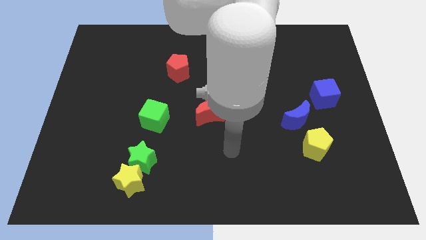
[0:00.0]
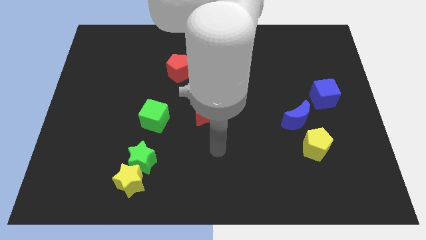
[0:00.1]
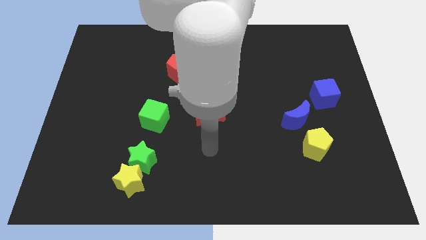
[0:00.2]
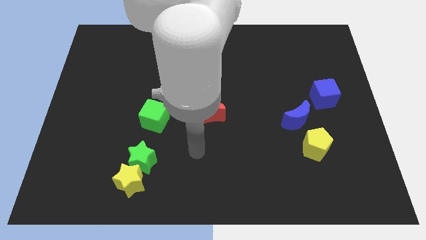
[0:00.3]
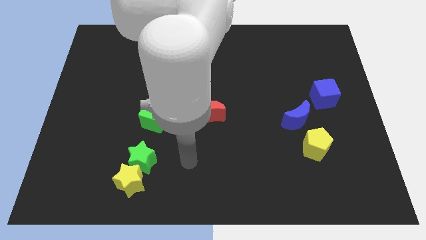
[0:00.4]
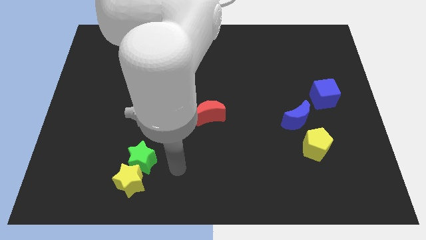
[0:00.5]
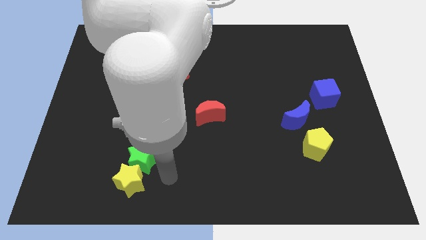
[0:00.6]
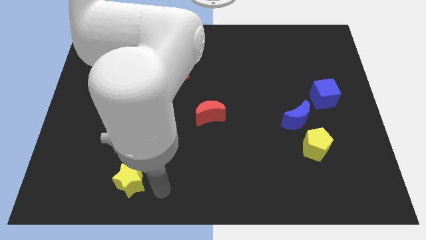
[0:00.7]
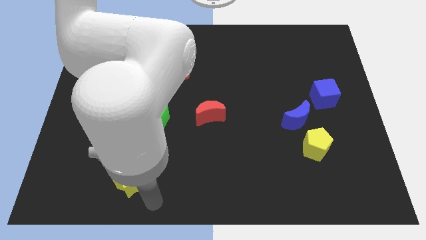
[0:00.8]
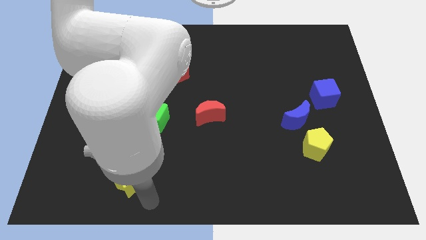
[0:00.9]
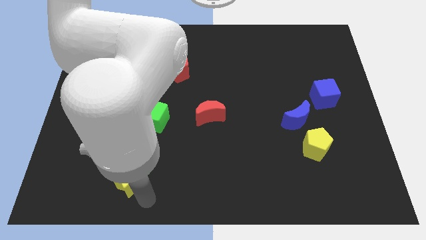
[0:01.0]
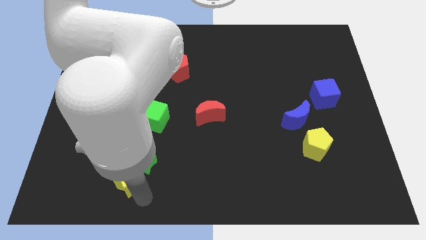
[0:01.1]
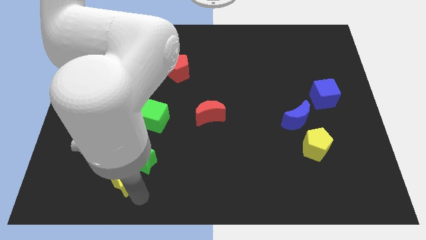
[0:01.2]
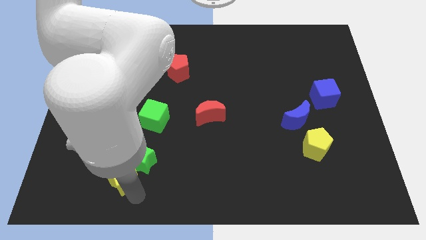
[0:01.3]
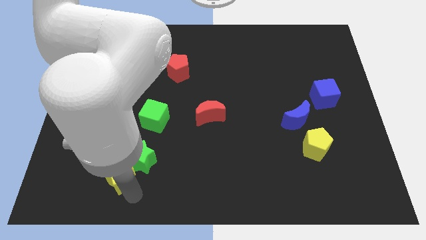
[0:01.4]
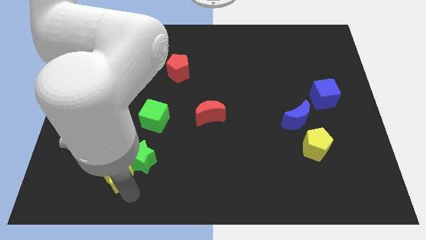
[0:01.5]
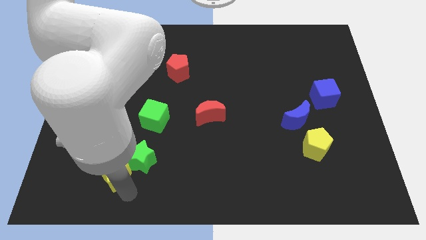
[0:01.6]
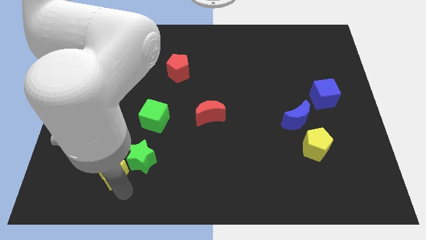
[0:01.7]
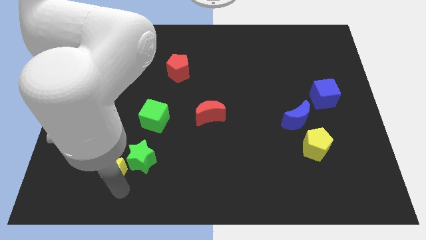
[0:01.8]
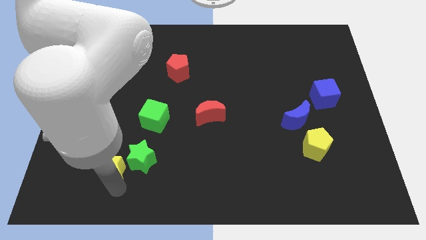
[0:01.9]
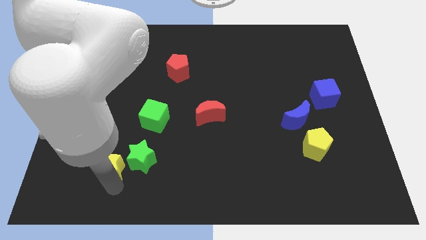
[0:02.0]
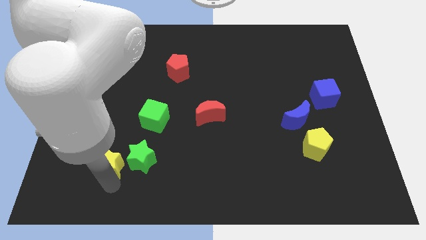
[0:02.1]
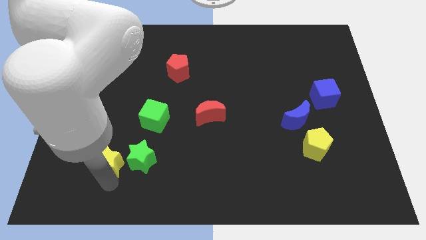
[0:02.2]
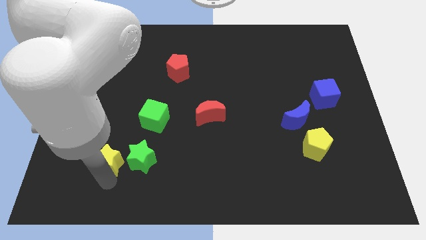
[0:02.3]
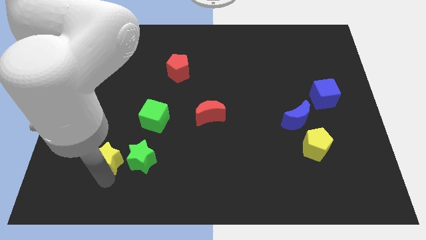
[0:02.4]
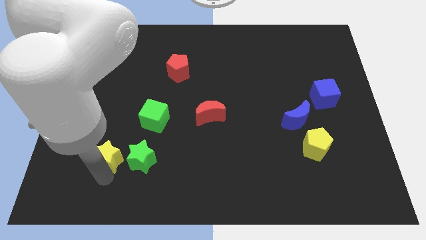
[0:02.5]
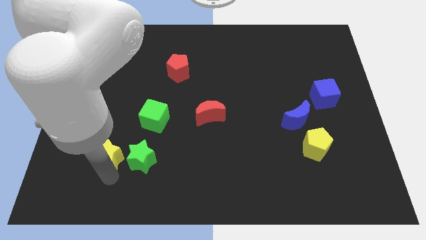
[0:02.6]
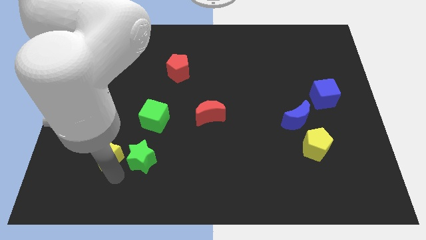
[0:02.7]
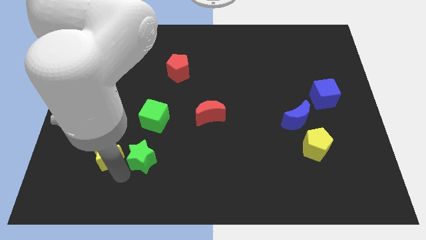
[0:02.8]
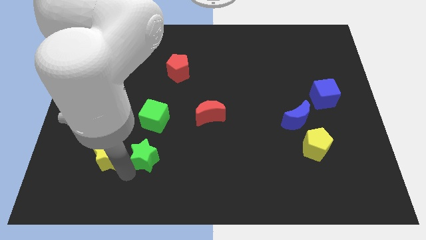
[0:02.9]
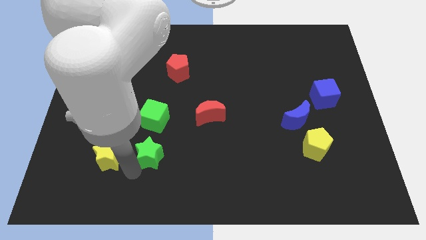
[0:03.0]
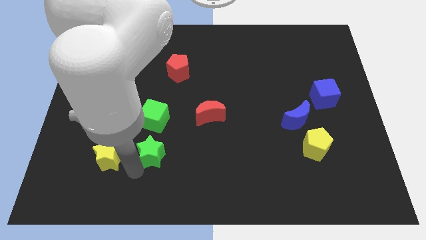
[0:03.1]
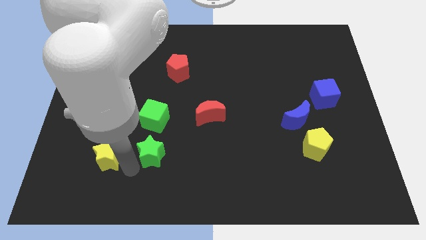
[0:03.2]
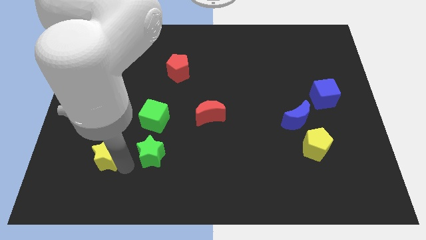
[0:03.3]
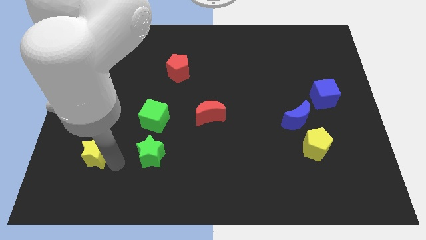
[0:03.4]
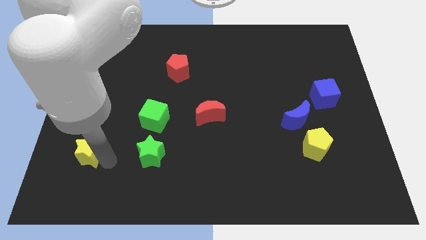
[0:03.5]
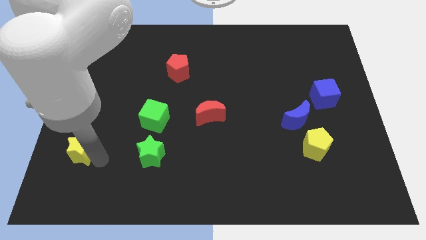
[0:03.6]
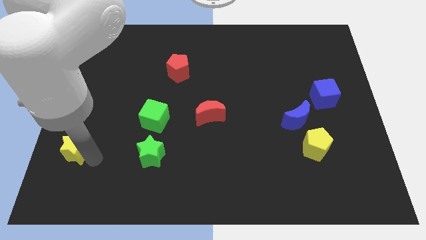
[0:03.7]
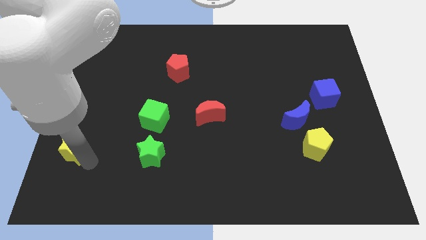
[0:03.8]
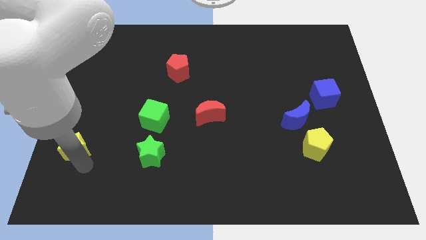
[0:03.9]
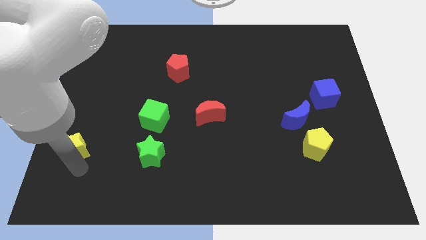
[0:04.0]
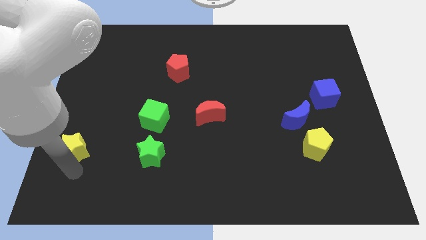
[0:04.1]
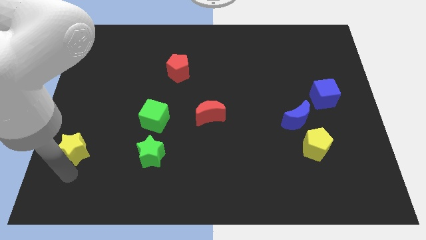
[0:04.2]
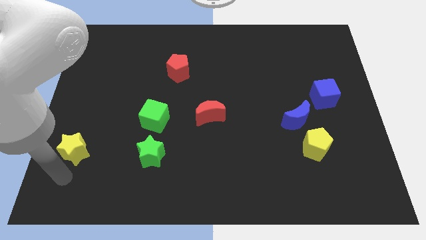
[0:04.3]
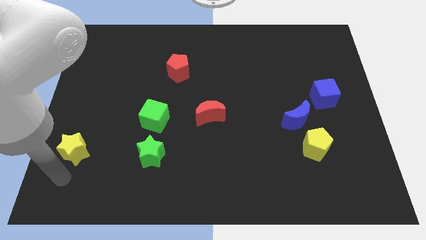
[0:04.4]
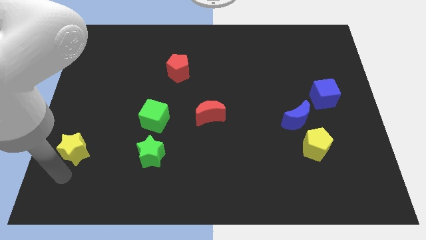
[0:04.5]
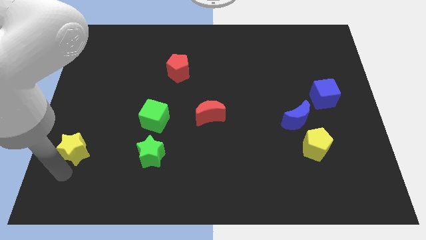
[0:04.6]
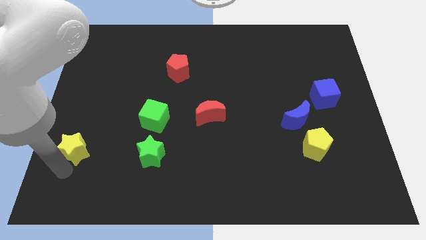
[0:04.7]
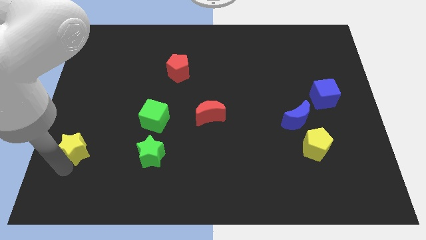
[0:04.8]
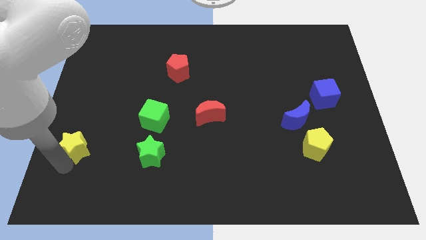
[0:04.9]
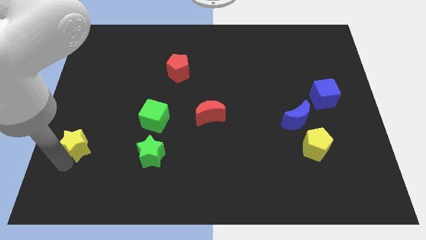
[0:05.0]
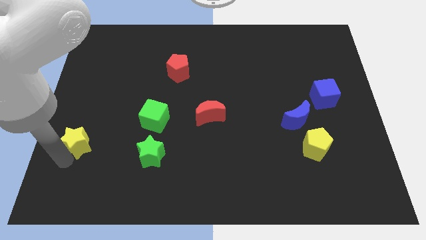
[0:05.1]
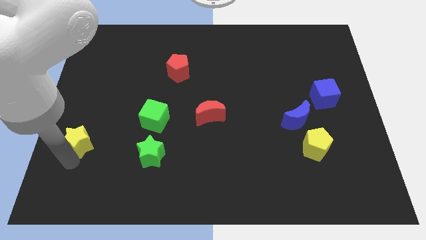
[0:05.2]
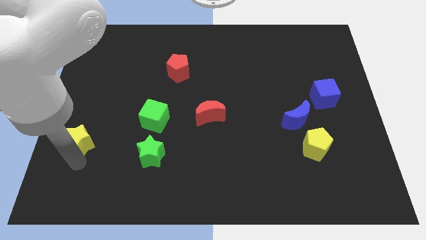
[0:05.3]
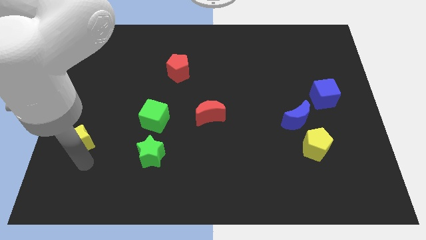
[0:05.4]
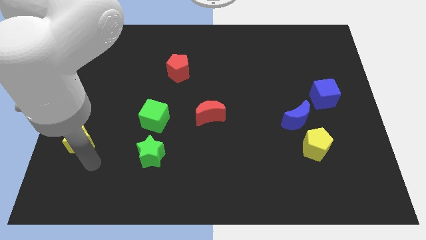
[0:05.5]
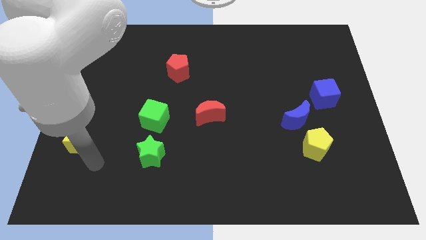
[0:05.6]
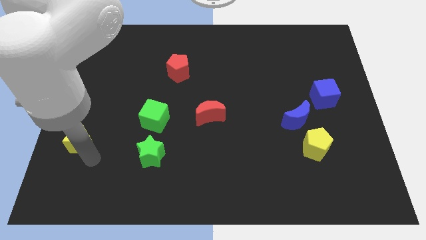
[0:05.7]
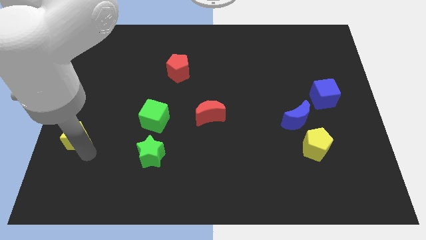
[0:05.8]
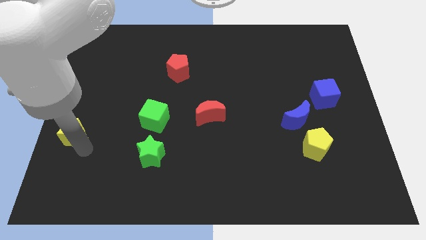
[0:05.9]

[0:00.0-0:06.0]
put the yellow star to the left side of the board
